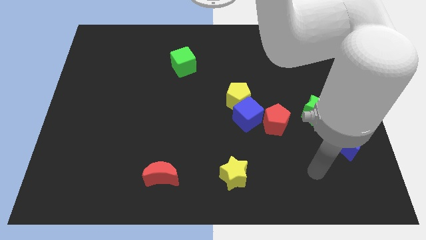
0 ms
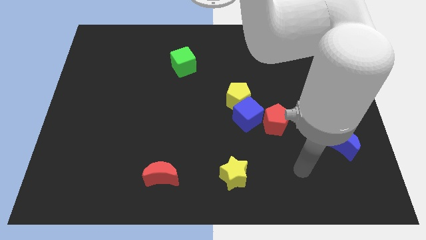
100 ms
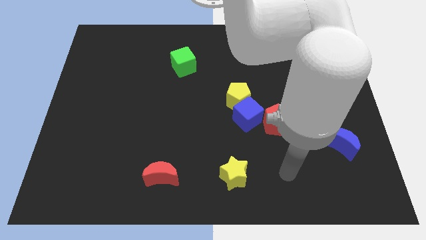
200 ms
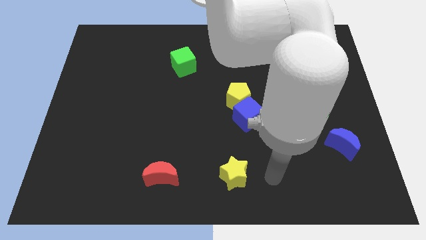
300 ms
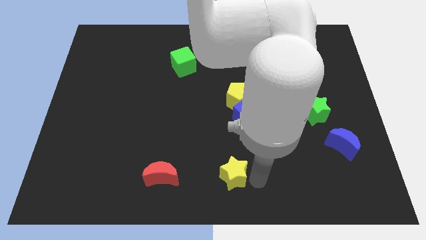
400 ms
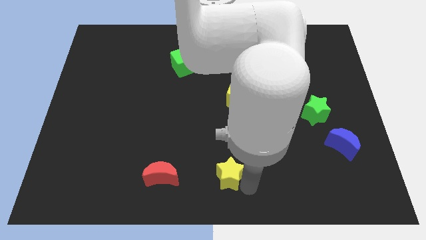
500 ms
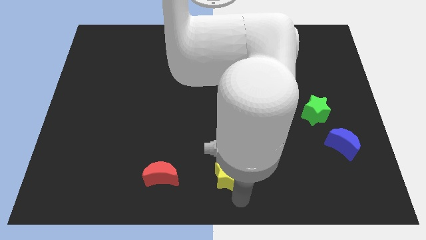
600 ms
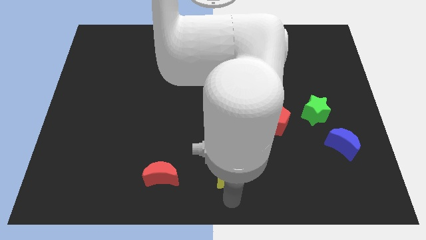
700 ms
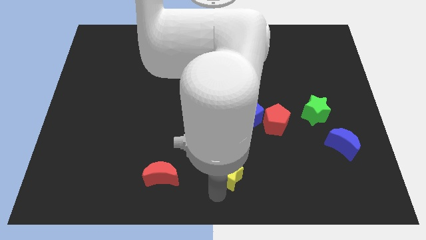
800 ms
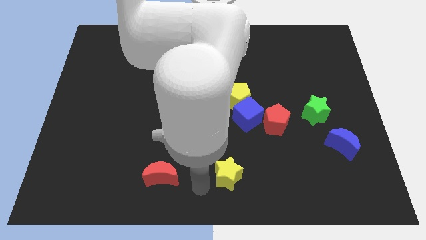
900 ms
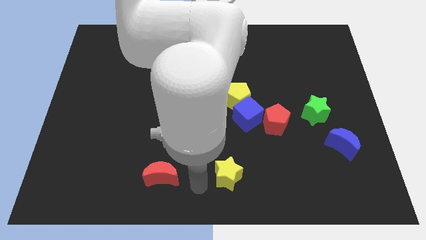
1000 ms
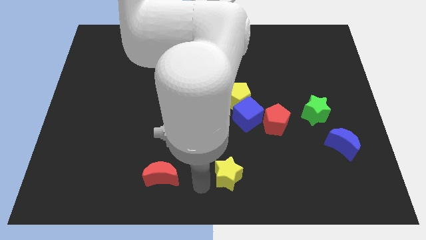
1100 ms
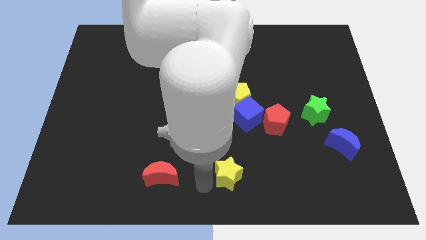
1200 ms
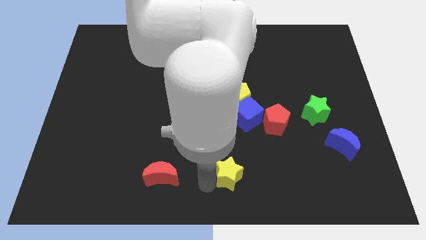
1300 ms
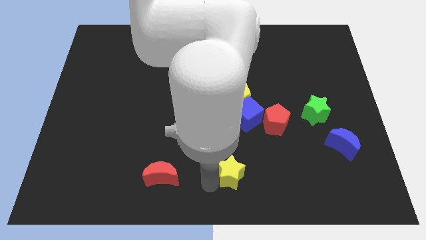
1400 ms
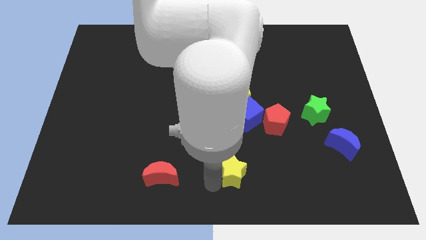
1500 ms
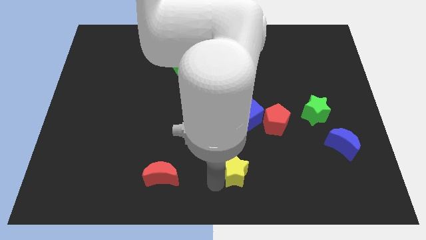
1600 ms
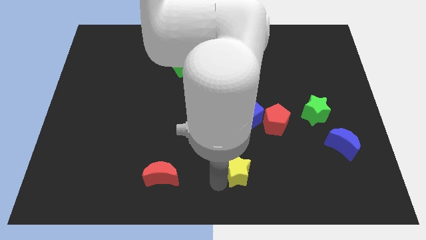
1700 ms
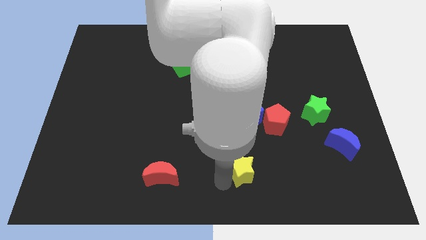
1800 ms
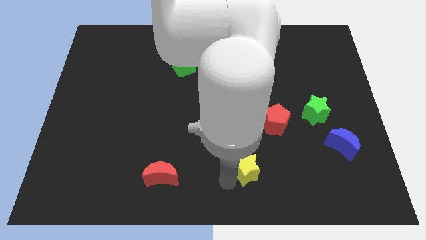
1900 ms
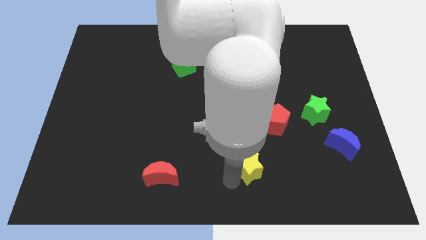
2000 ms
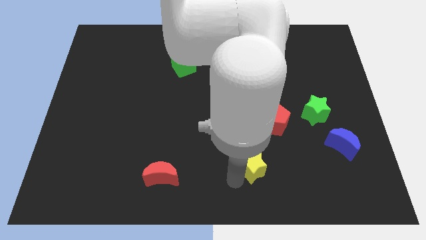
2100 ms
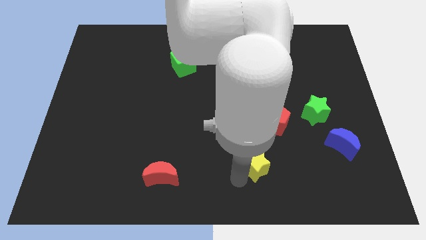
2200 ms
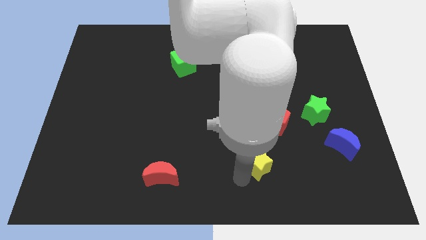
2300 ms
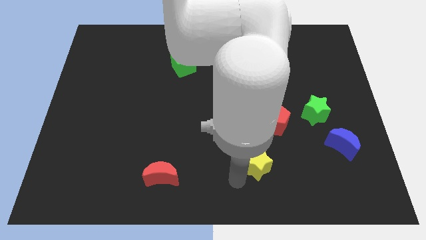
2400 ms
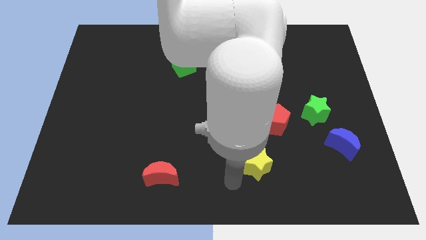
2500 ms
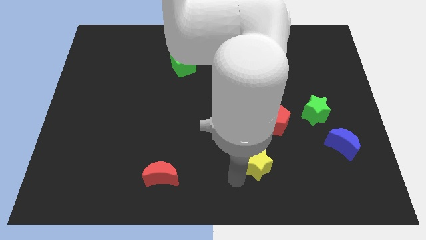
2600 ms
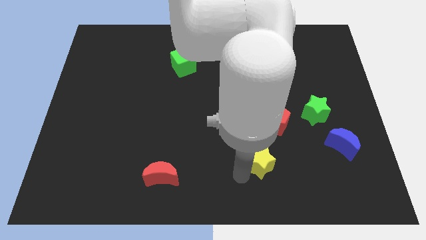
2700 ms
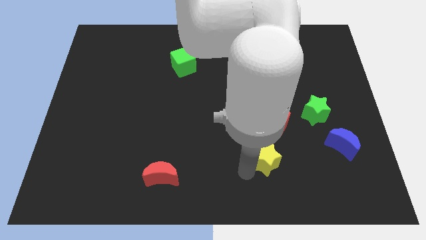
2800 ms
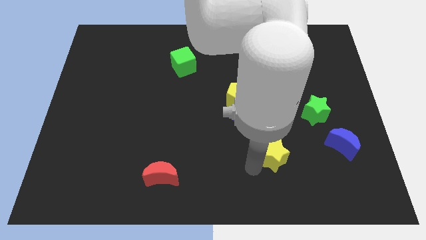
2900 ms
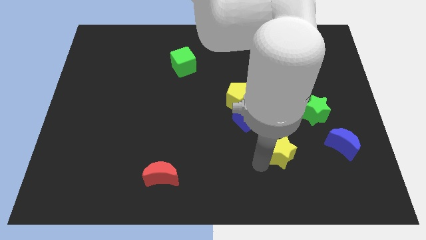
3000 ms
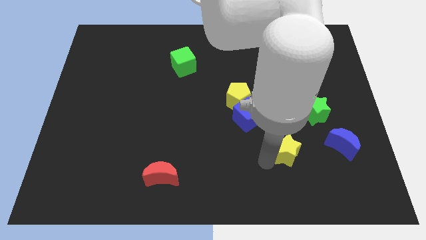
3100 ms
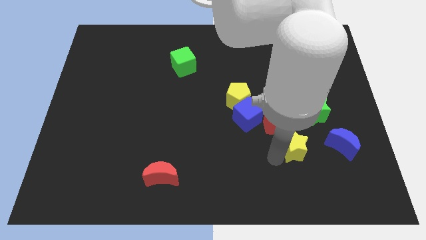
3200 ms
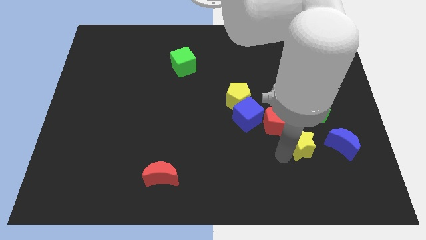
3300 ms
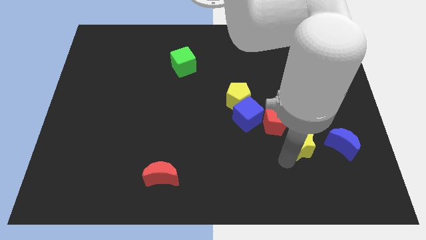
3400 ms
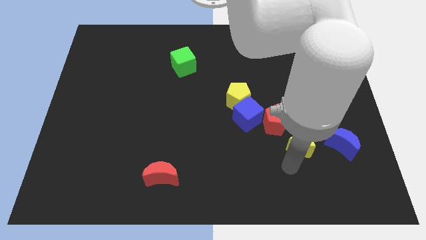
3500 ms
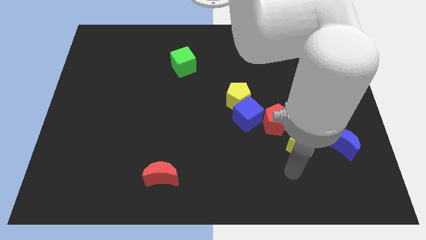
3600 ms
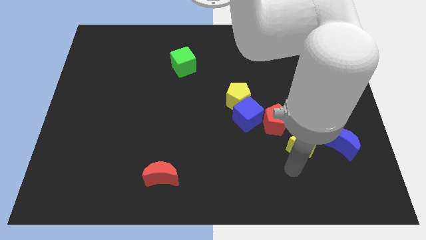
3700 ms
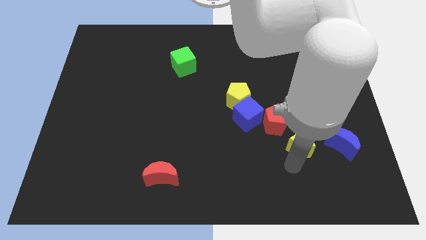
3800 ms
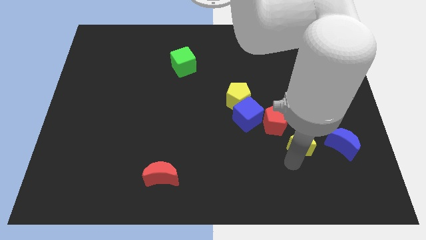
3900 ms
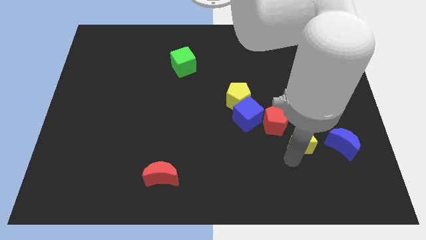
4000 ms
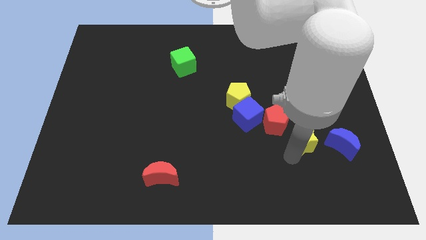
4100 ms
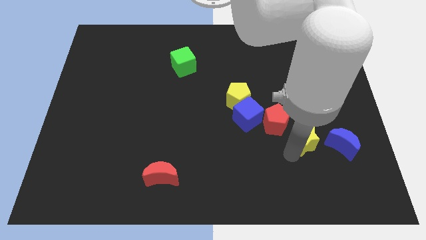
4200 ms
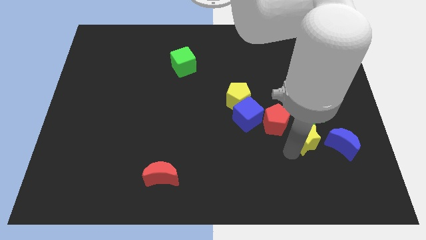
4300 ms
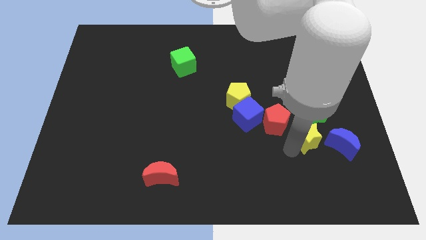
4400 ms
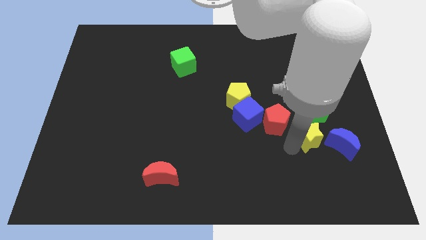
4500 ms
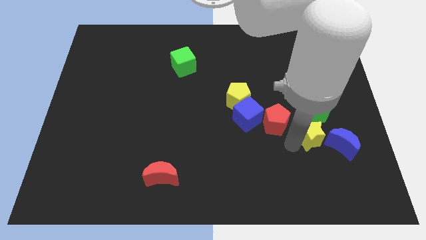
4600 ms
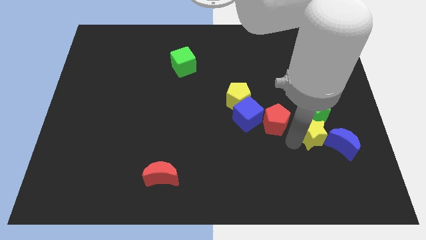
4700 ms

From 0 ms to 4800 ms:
move the yellow star next to the green star

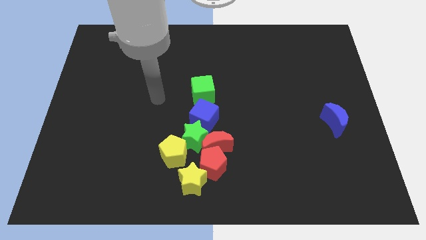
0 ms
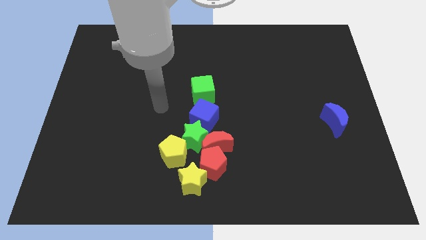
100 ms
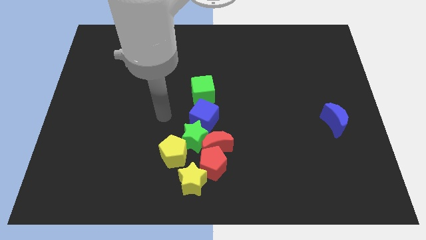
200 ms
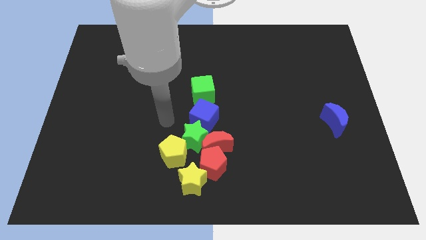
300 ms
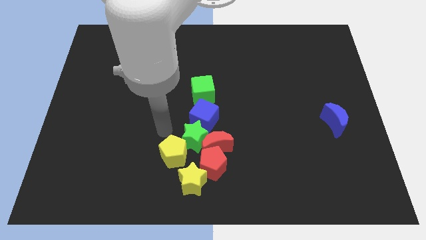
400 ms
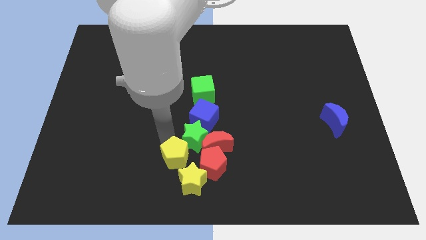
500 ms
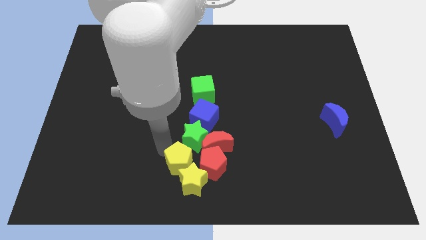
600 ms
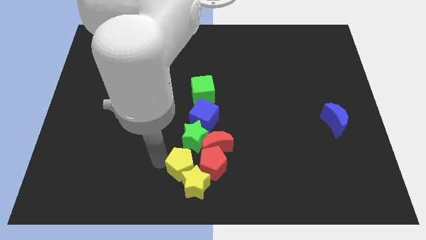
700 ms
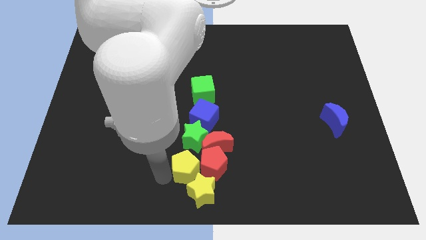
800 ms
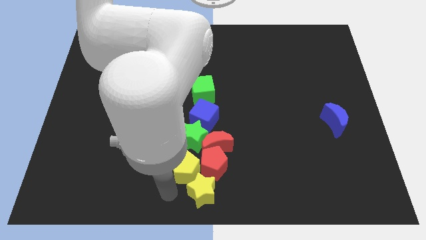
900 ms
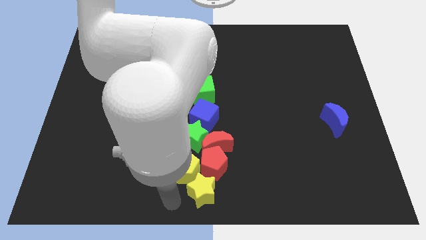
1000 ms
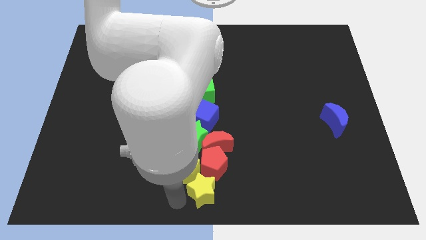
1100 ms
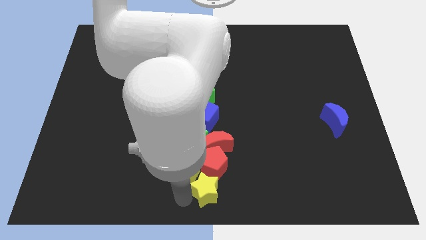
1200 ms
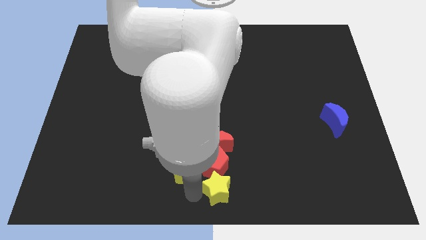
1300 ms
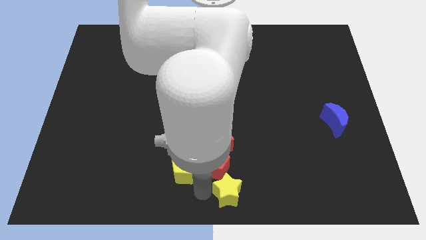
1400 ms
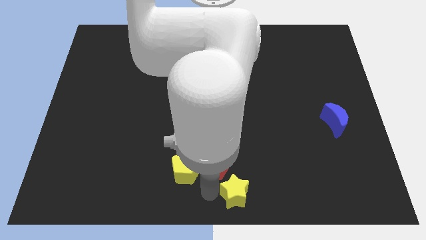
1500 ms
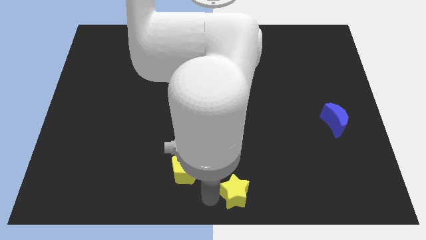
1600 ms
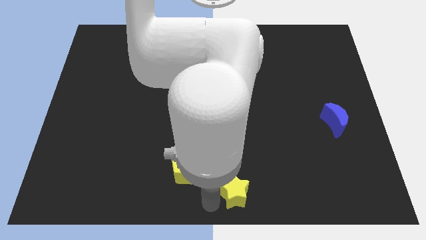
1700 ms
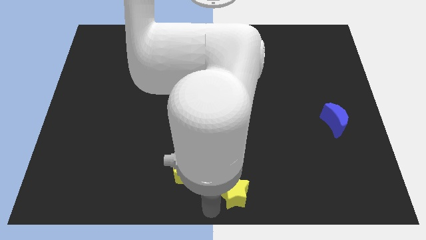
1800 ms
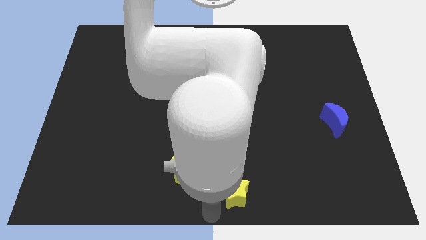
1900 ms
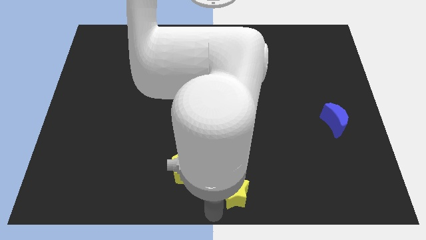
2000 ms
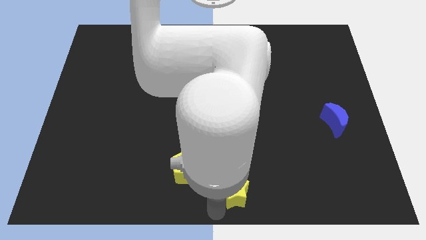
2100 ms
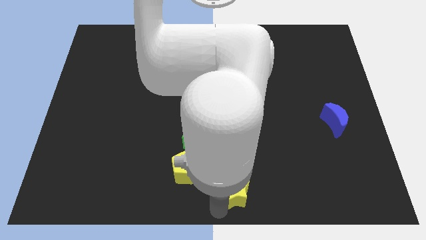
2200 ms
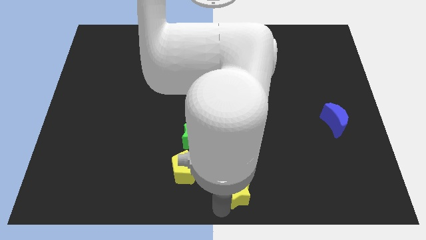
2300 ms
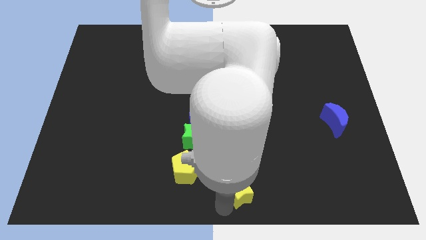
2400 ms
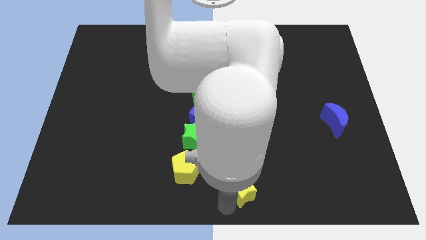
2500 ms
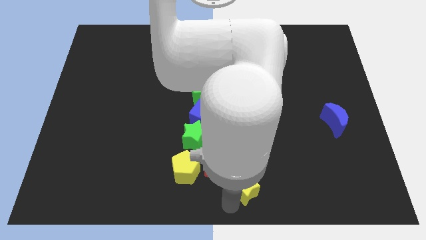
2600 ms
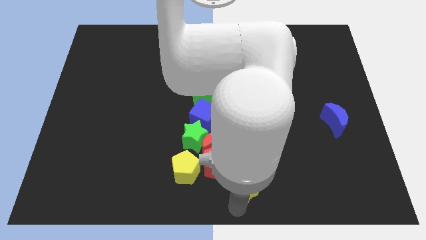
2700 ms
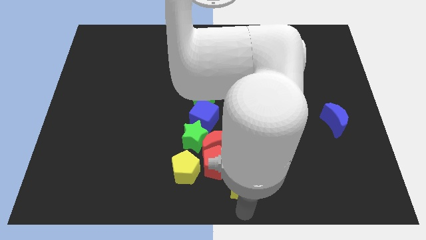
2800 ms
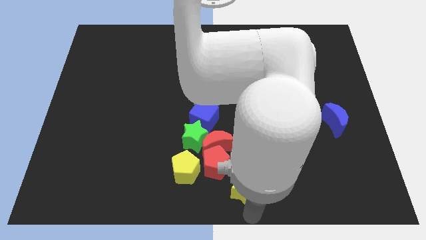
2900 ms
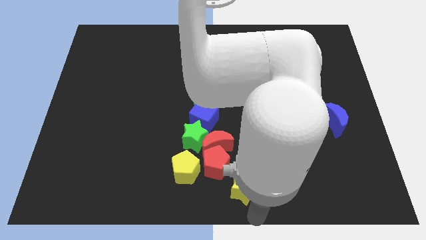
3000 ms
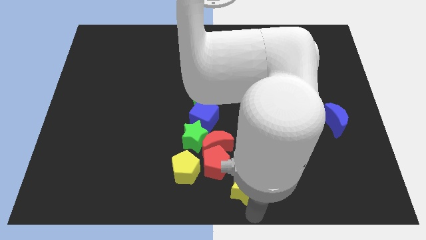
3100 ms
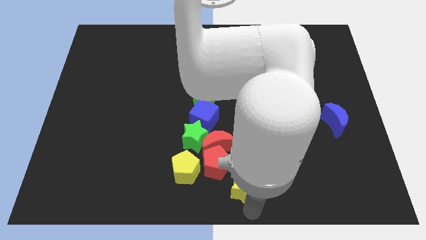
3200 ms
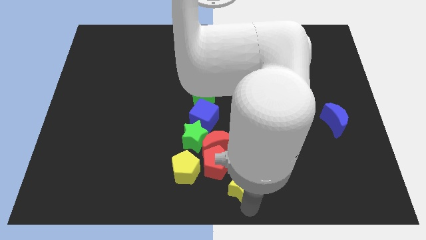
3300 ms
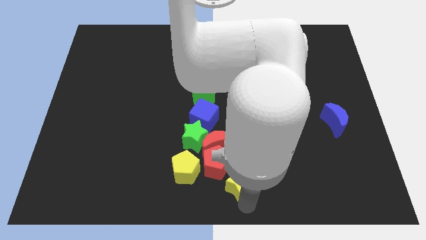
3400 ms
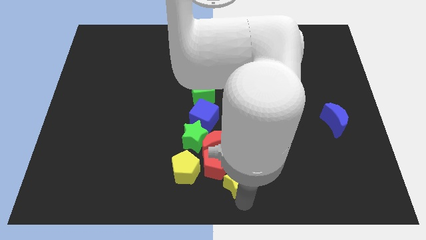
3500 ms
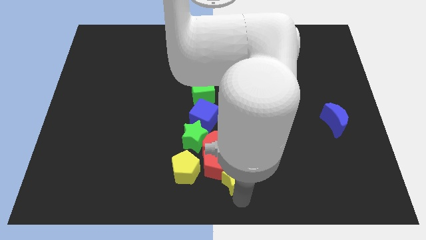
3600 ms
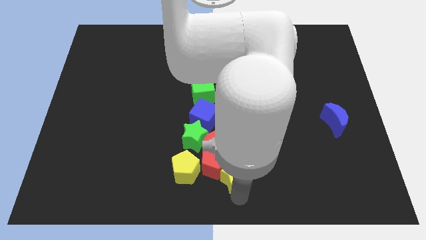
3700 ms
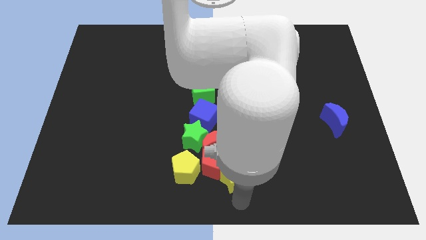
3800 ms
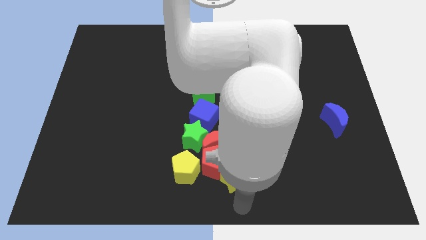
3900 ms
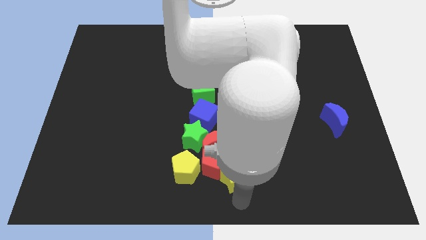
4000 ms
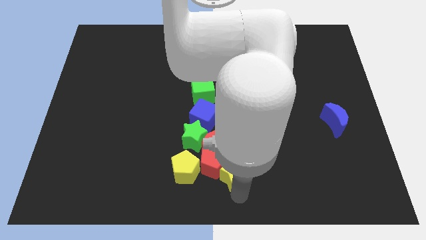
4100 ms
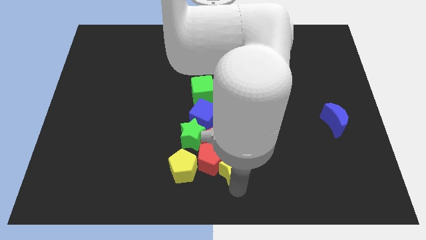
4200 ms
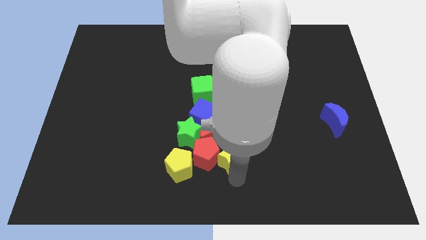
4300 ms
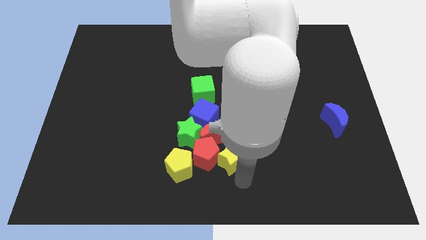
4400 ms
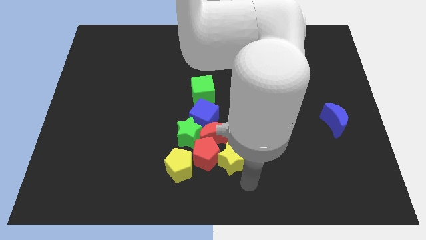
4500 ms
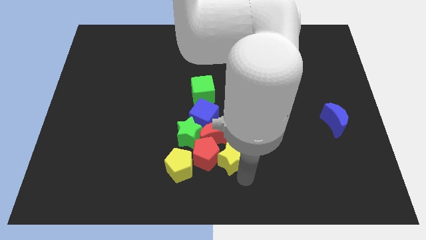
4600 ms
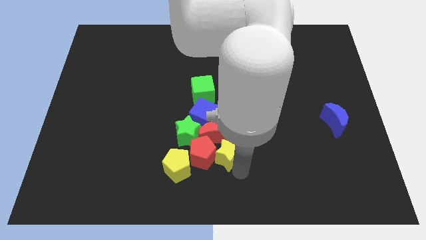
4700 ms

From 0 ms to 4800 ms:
slide the yellow star to the red moon
